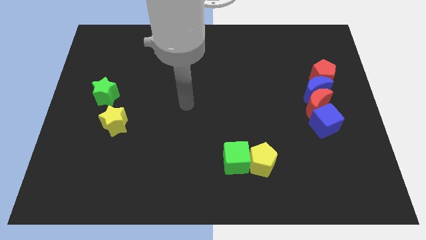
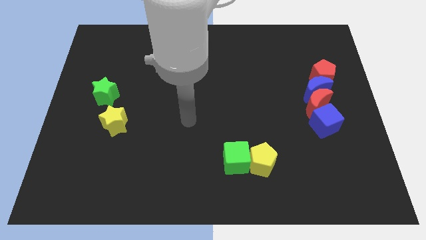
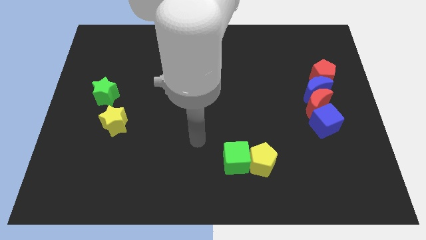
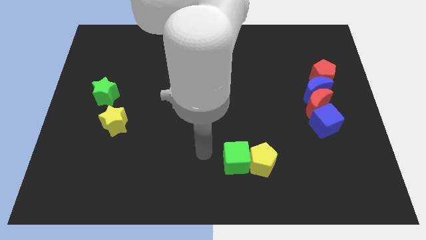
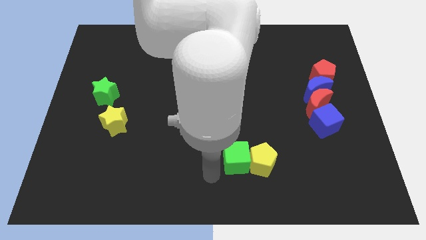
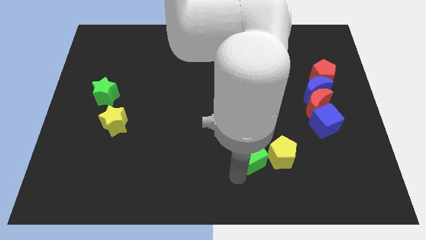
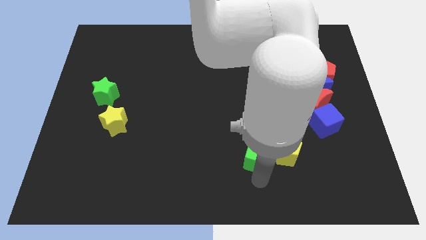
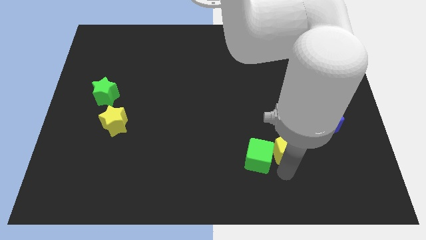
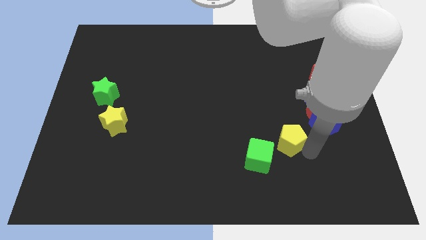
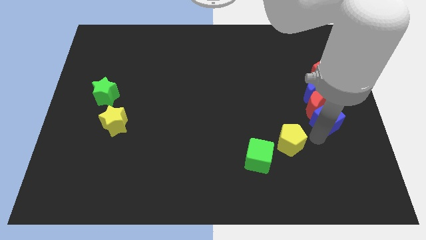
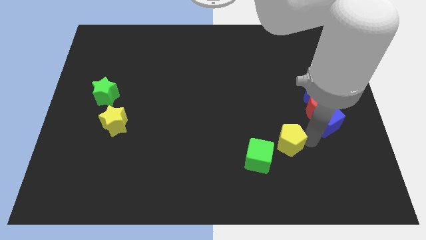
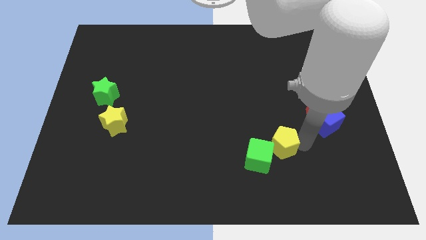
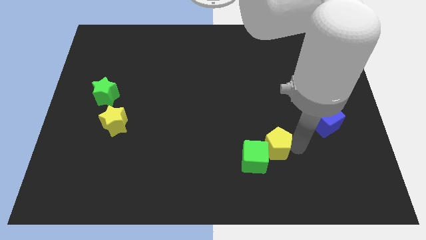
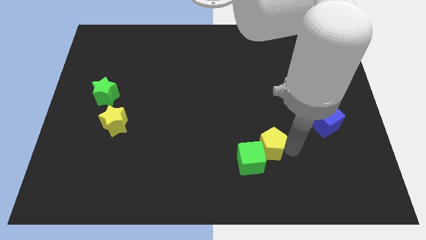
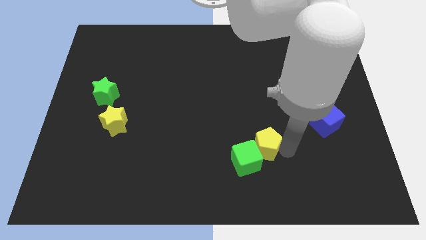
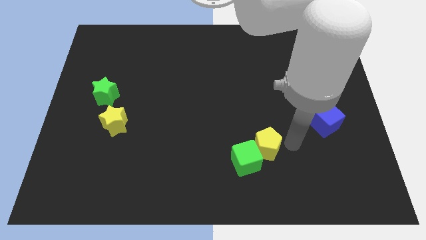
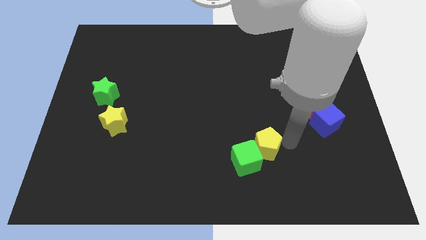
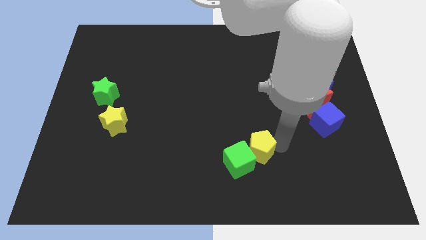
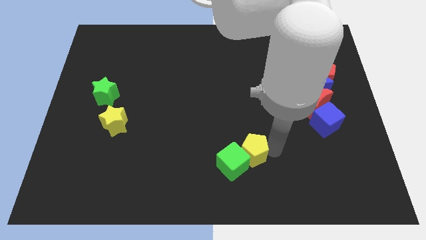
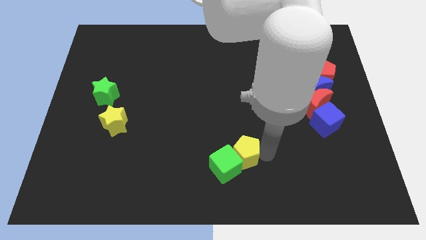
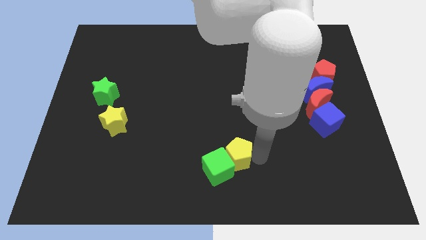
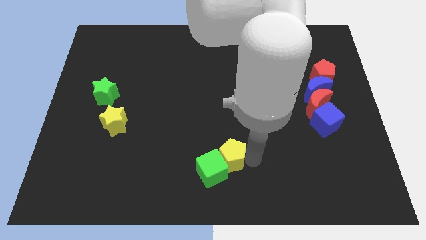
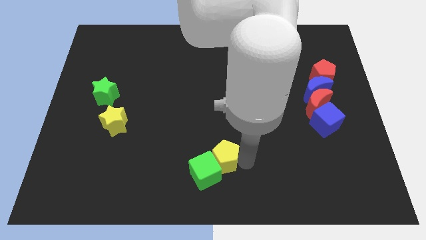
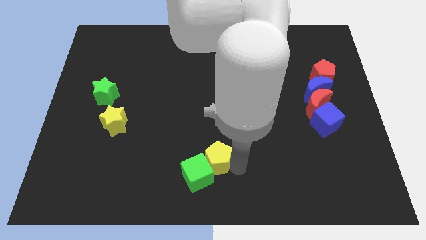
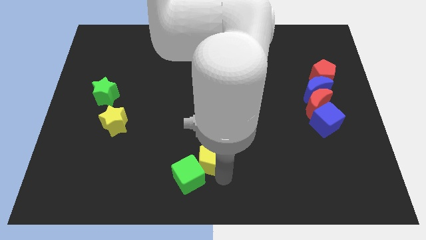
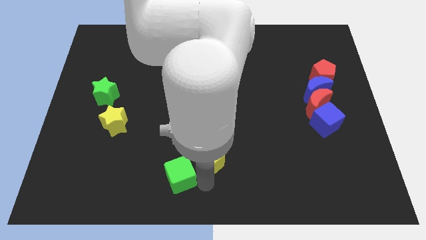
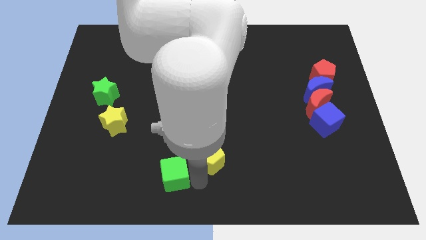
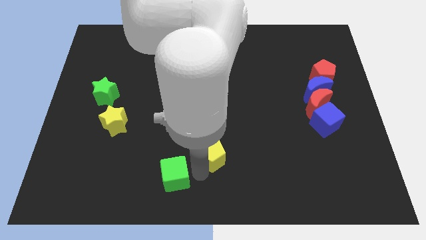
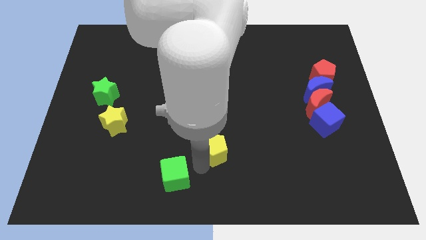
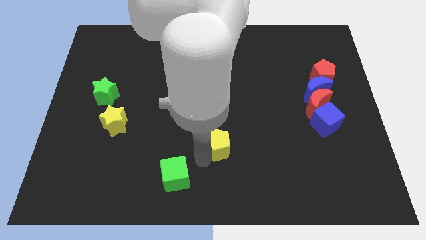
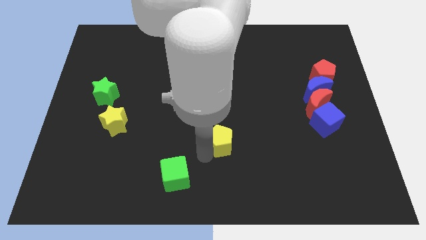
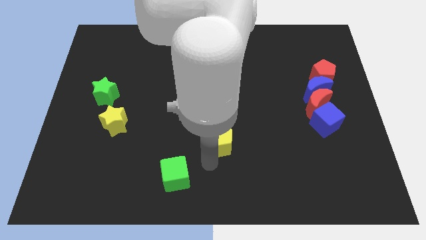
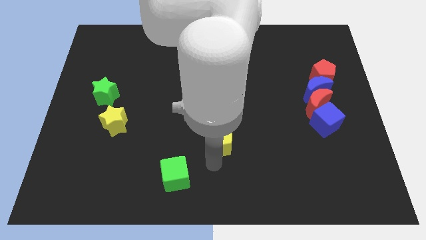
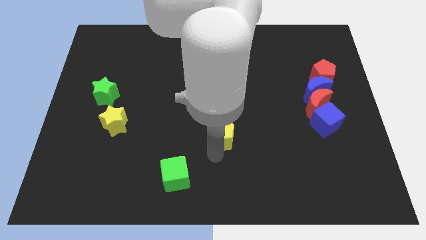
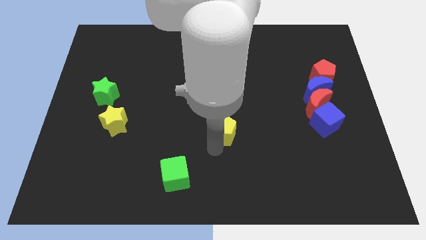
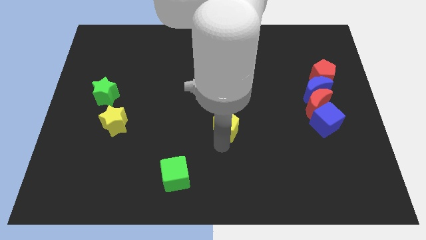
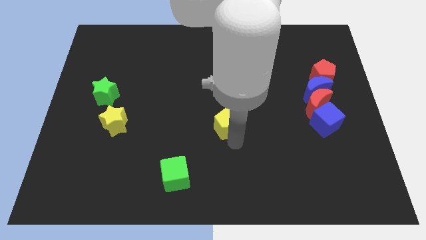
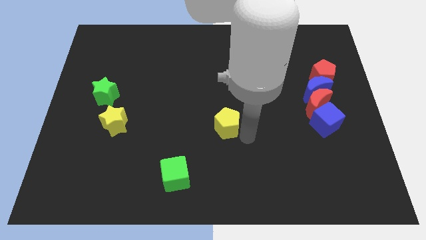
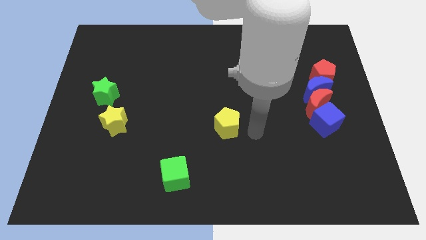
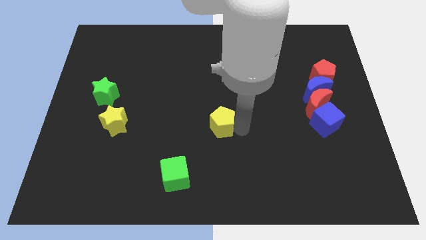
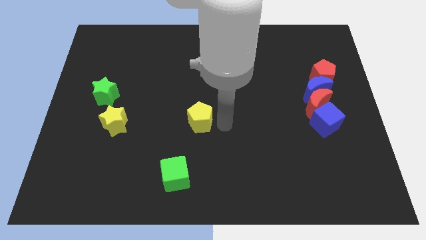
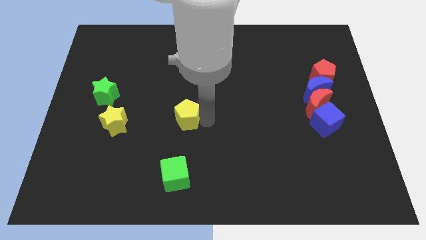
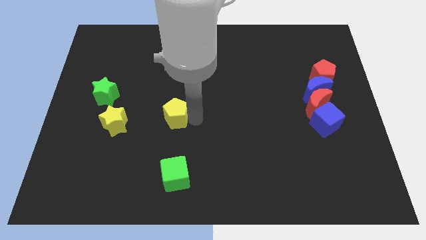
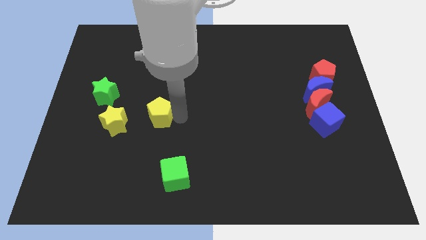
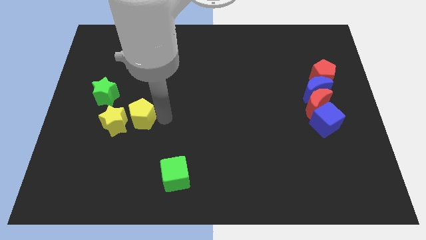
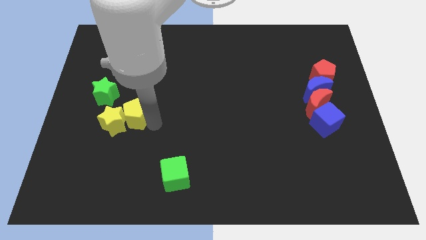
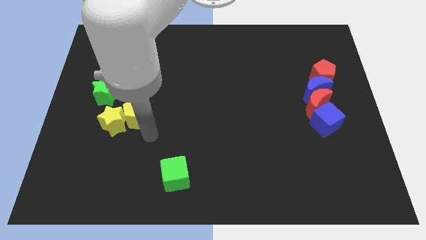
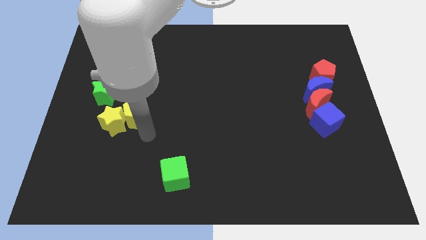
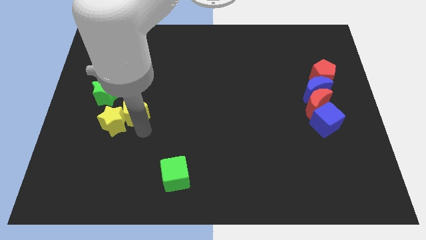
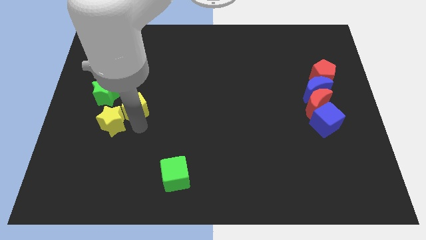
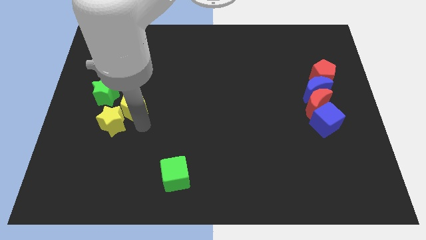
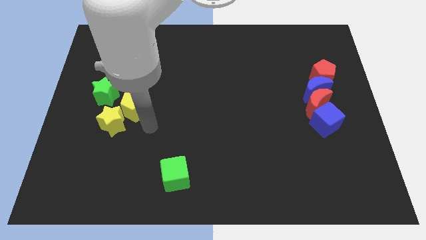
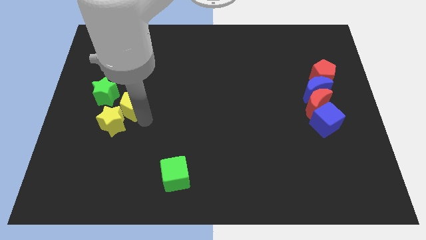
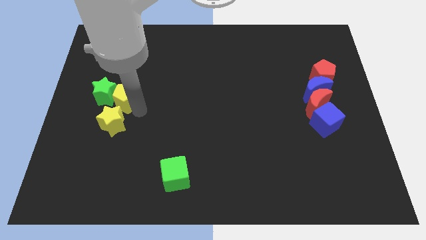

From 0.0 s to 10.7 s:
put the yellow pentagon towards the green star

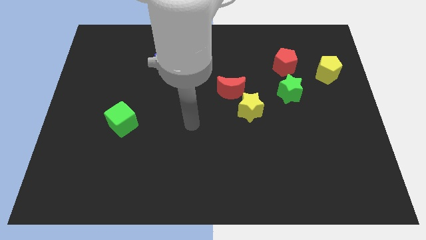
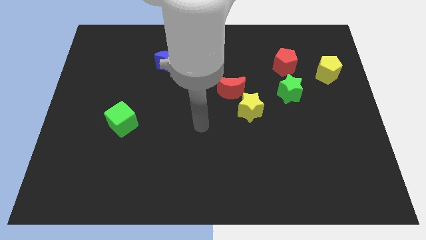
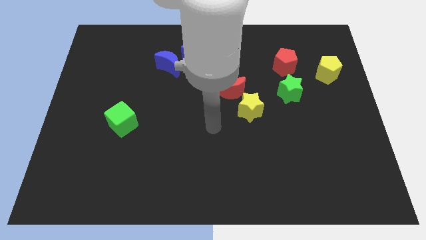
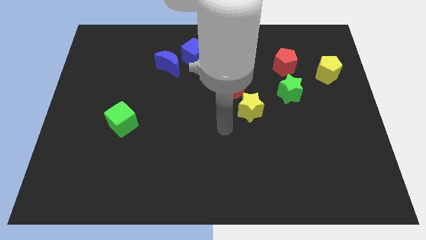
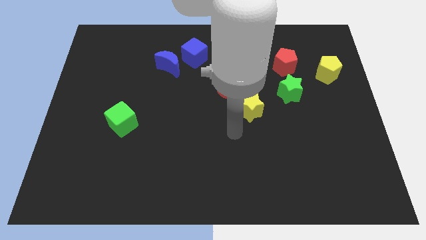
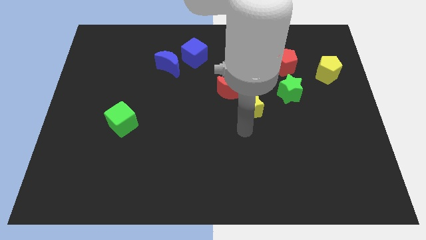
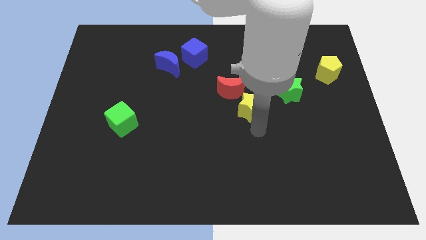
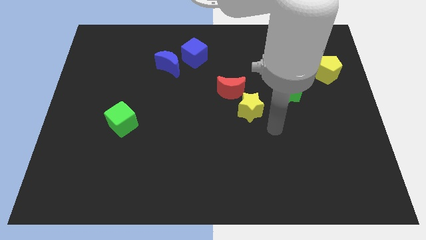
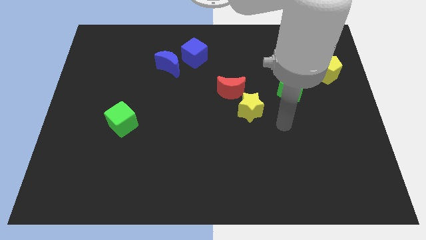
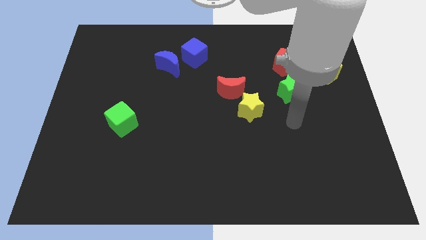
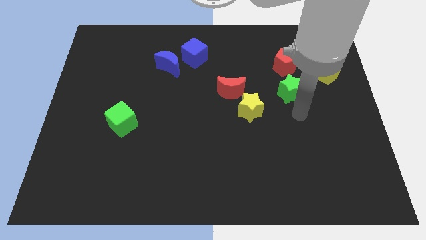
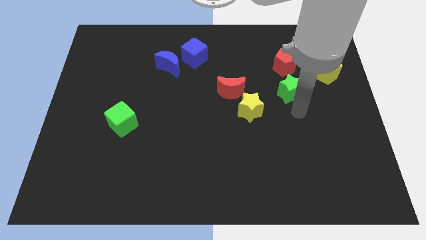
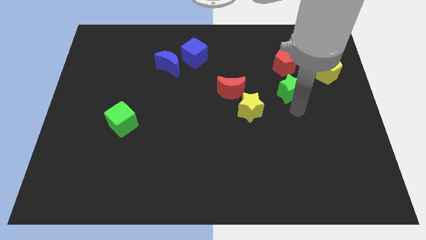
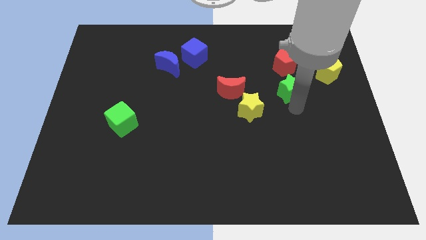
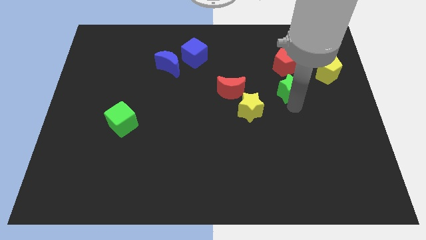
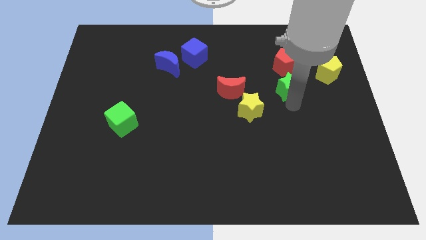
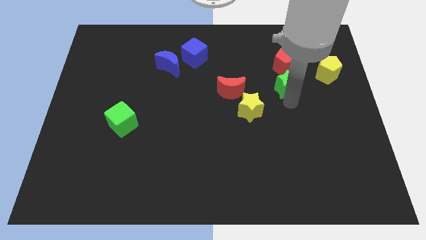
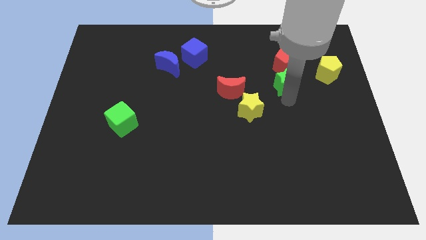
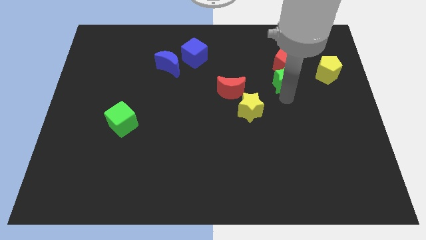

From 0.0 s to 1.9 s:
slide the green star close to the red pentagon
